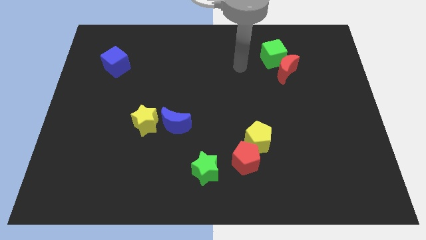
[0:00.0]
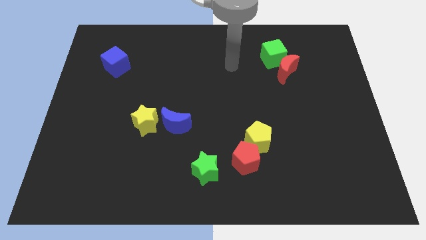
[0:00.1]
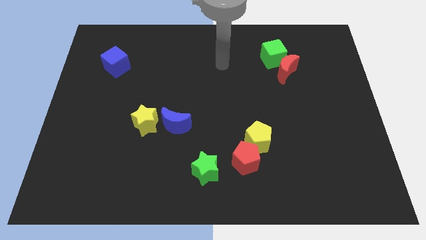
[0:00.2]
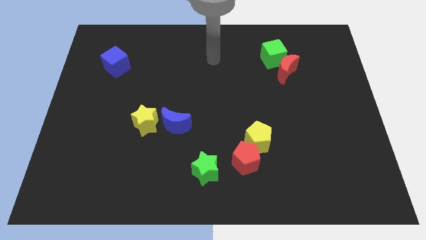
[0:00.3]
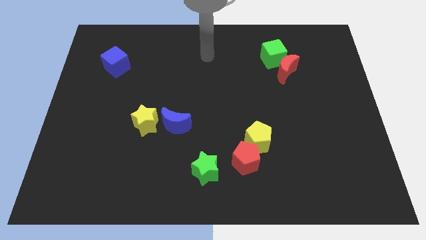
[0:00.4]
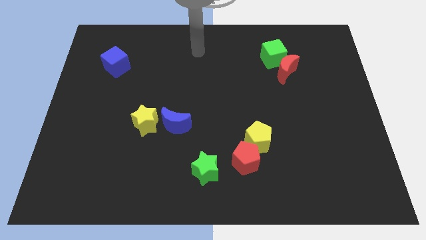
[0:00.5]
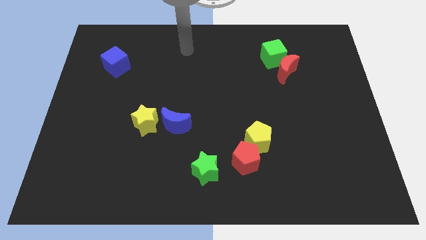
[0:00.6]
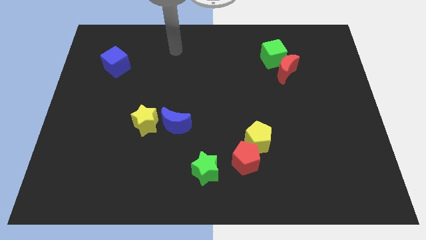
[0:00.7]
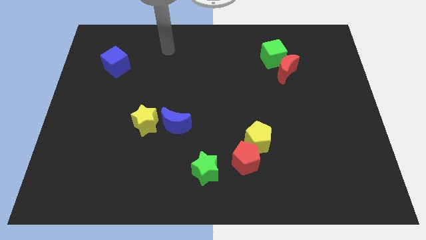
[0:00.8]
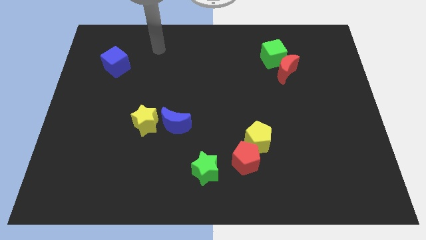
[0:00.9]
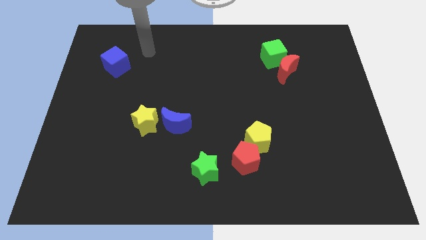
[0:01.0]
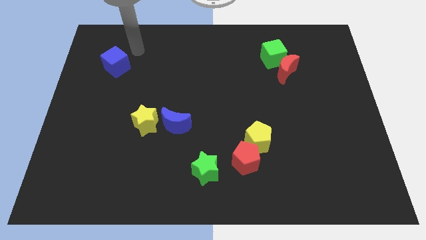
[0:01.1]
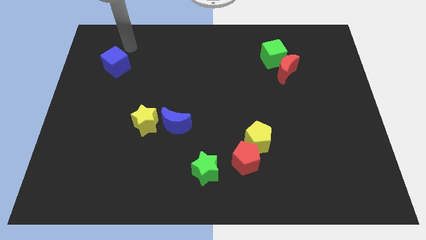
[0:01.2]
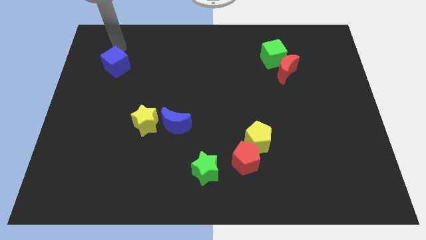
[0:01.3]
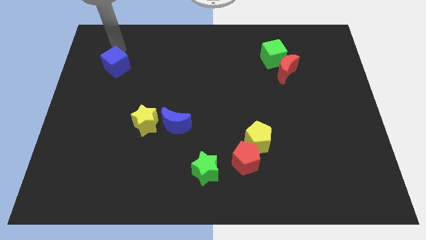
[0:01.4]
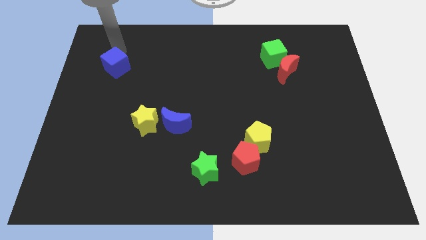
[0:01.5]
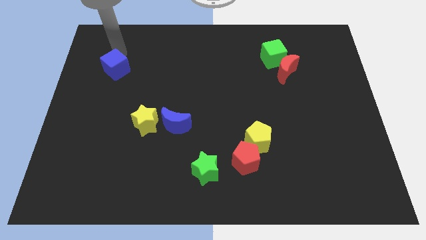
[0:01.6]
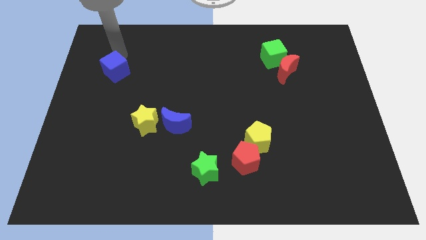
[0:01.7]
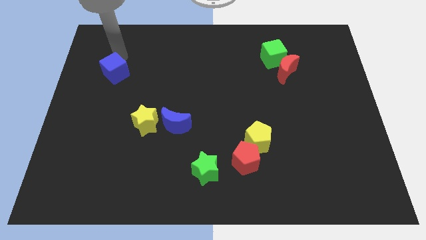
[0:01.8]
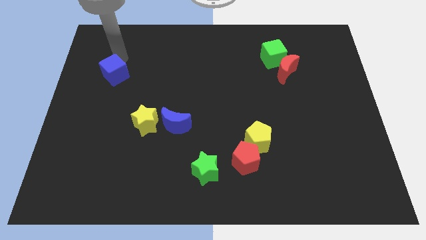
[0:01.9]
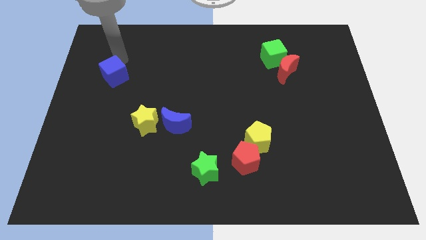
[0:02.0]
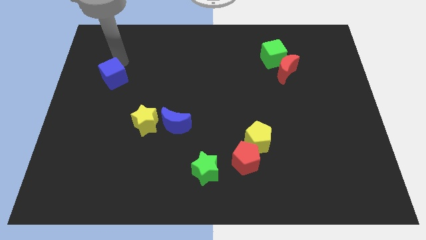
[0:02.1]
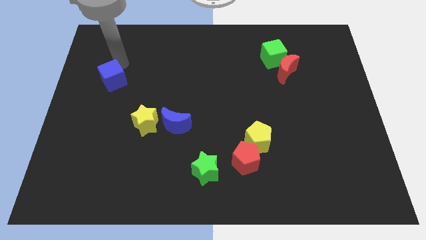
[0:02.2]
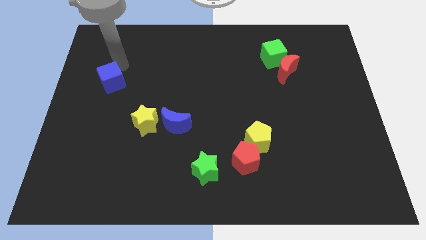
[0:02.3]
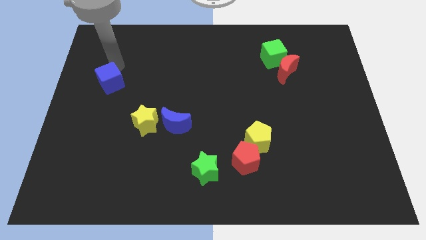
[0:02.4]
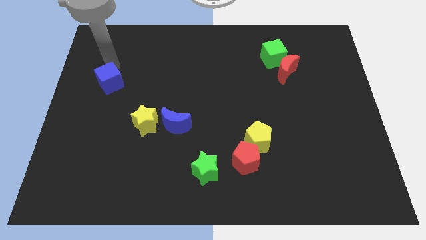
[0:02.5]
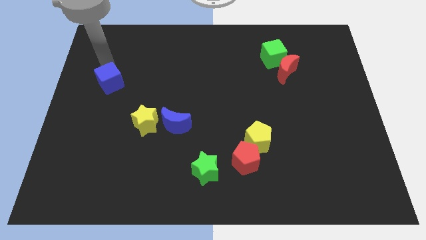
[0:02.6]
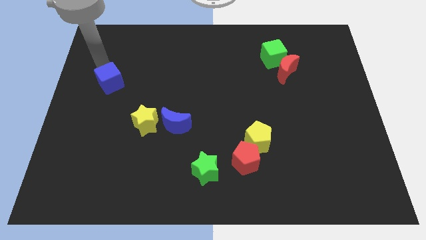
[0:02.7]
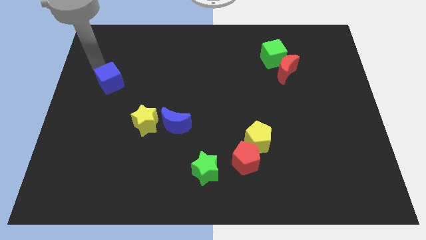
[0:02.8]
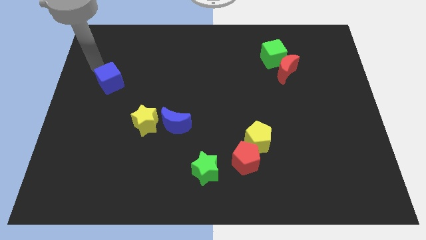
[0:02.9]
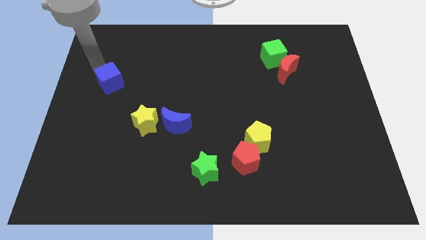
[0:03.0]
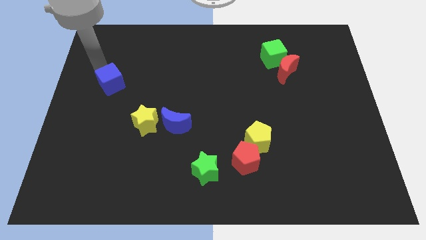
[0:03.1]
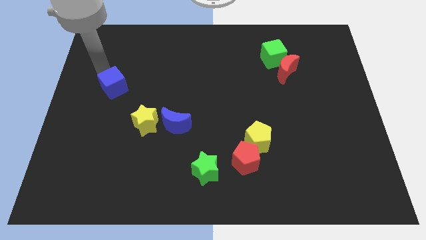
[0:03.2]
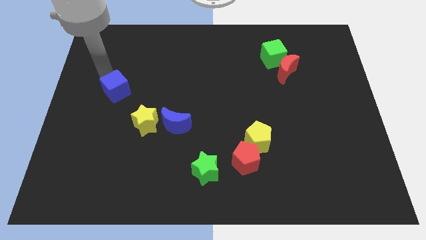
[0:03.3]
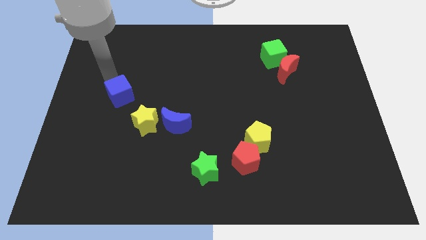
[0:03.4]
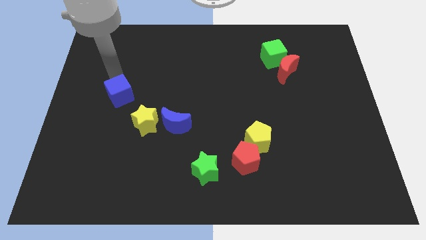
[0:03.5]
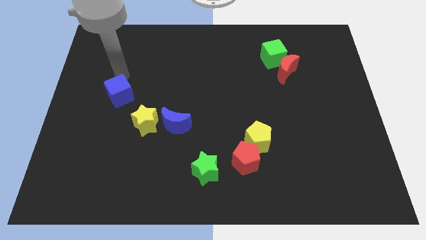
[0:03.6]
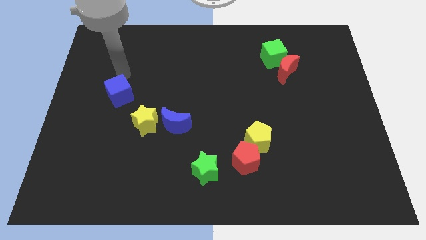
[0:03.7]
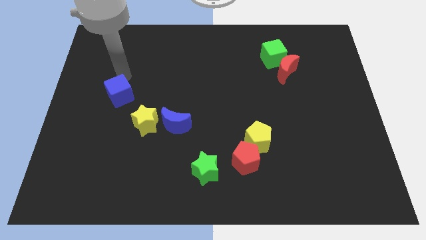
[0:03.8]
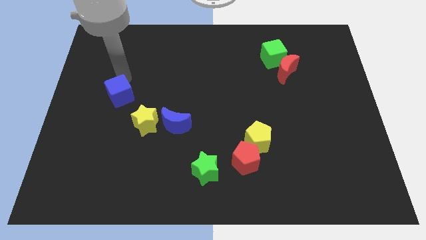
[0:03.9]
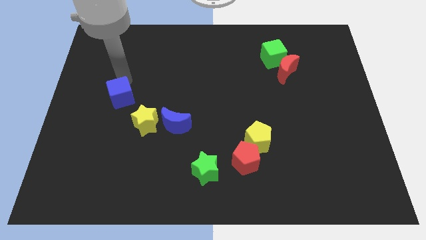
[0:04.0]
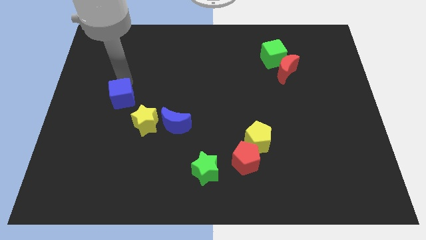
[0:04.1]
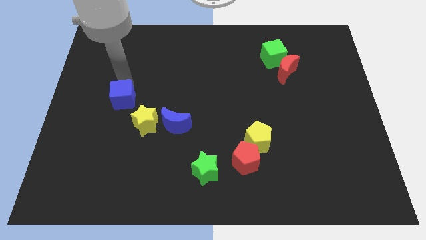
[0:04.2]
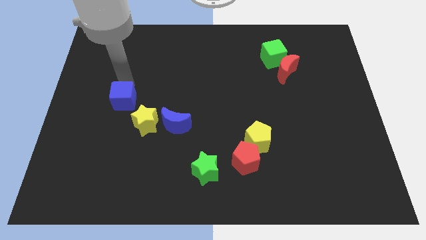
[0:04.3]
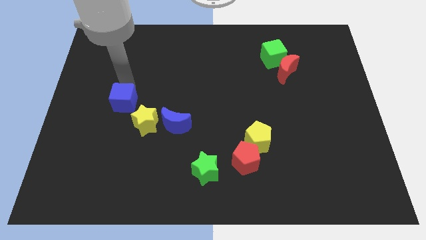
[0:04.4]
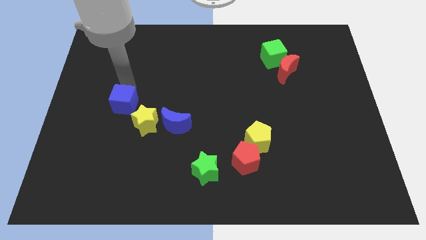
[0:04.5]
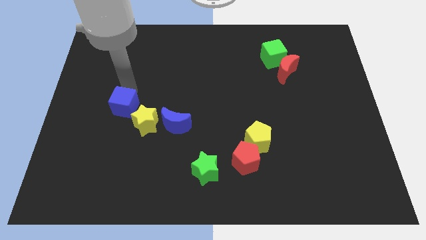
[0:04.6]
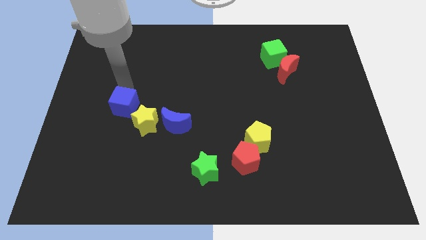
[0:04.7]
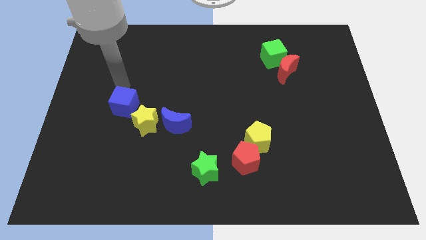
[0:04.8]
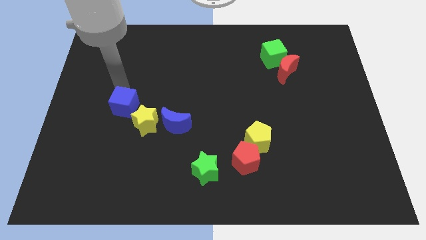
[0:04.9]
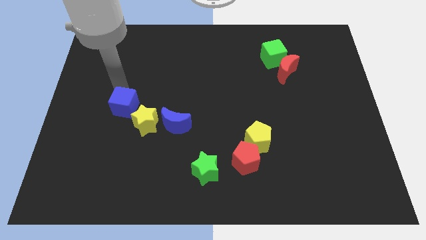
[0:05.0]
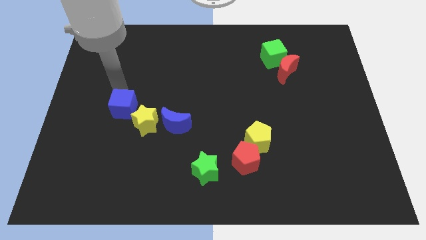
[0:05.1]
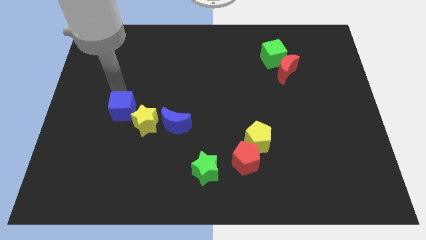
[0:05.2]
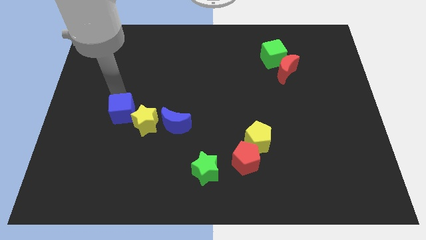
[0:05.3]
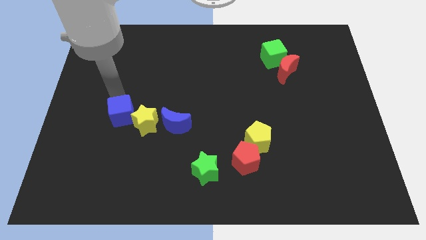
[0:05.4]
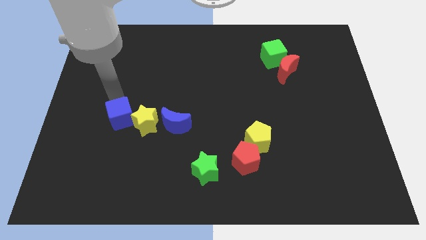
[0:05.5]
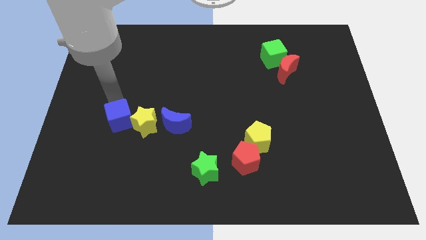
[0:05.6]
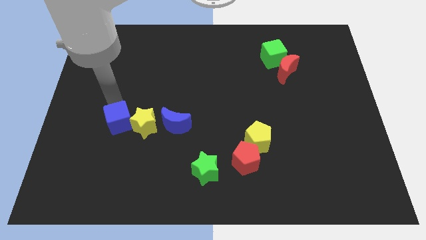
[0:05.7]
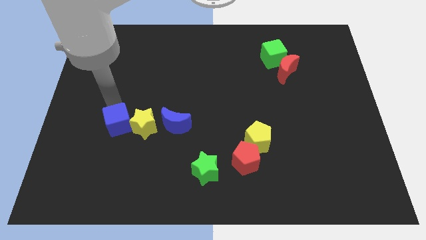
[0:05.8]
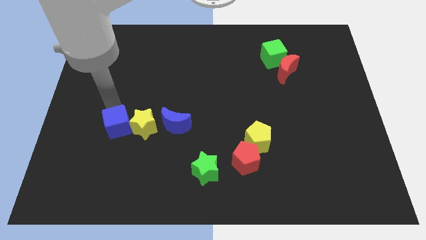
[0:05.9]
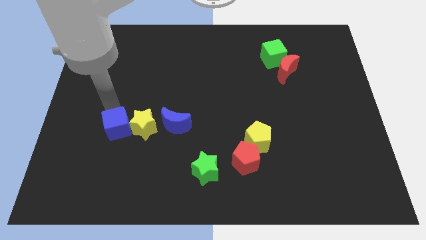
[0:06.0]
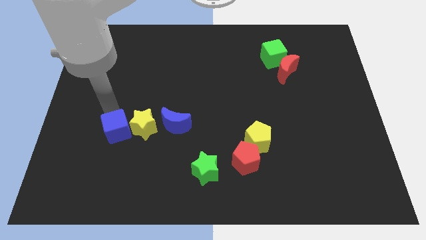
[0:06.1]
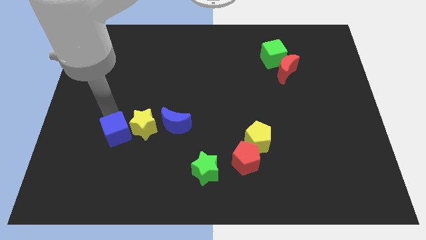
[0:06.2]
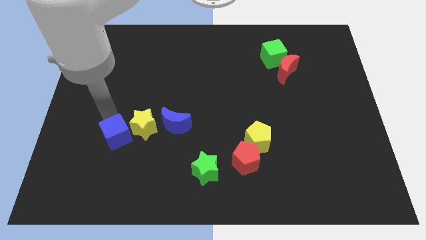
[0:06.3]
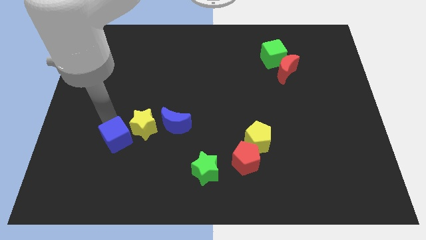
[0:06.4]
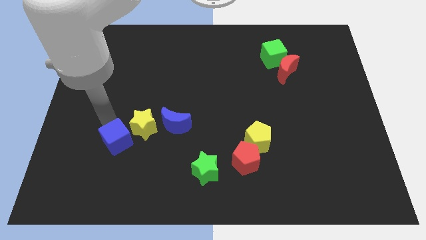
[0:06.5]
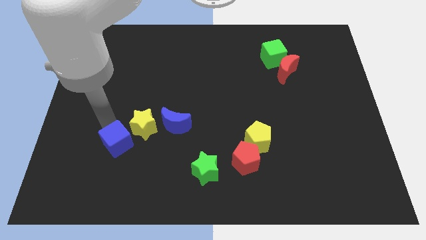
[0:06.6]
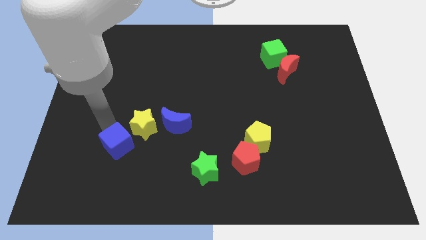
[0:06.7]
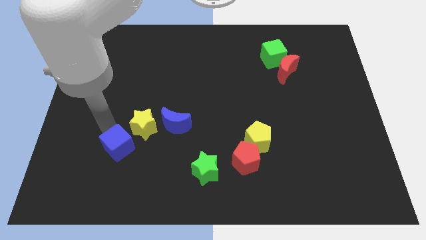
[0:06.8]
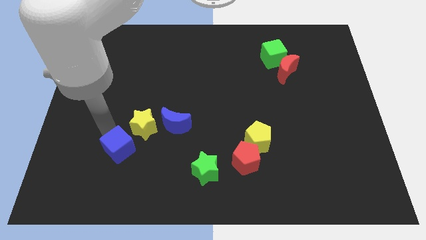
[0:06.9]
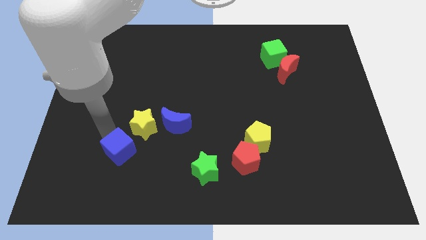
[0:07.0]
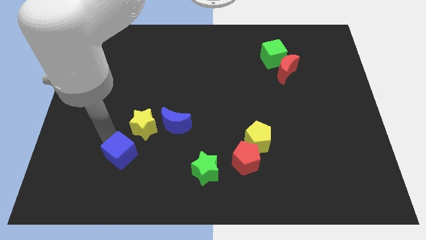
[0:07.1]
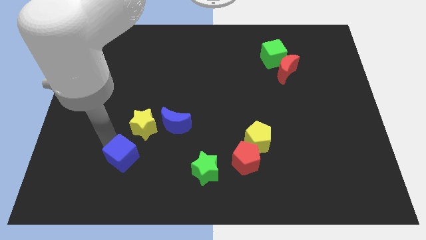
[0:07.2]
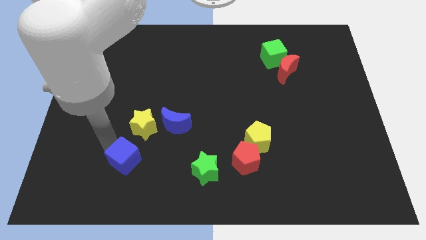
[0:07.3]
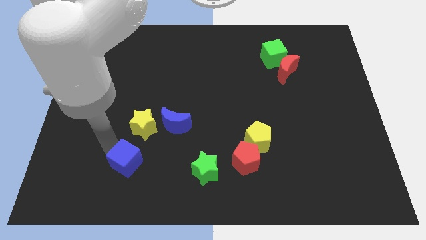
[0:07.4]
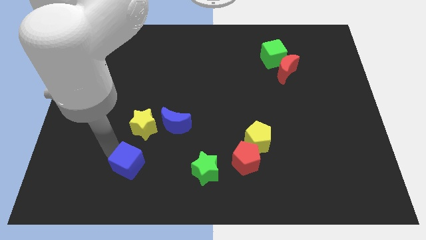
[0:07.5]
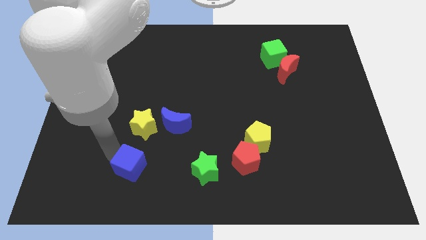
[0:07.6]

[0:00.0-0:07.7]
move the blue cube left of the green star
